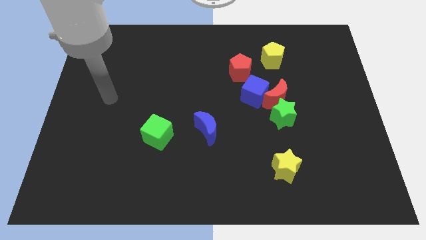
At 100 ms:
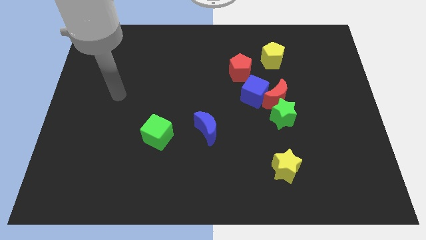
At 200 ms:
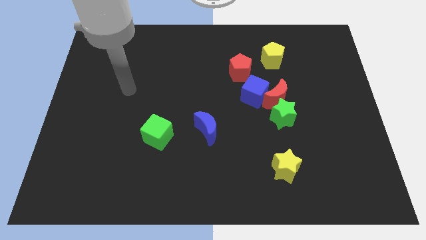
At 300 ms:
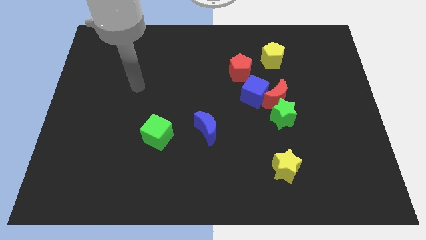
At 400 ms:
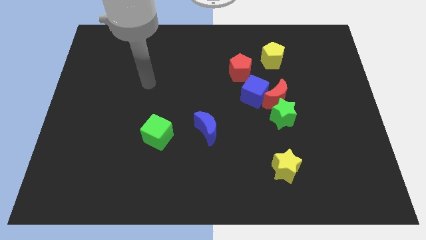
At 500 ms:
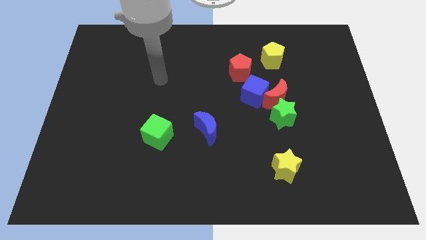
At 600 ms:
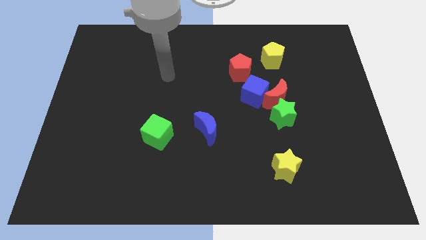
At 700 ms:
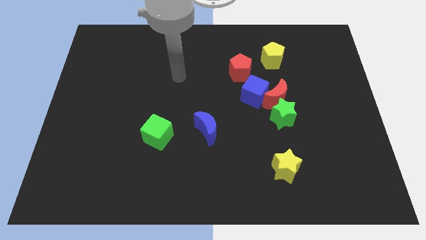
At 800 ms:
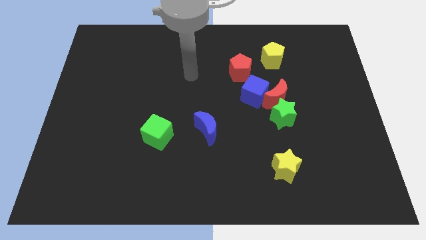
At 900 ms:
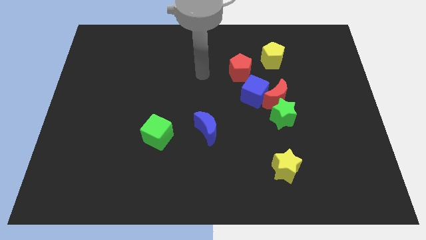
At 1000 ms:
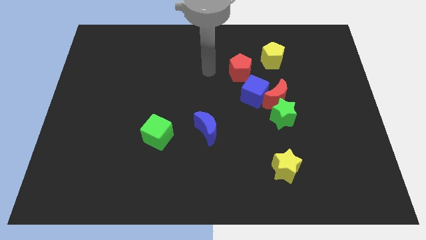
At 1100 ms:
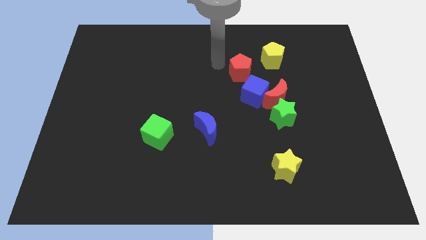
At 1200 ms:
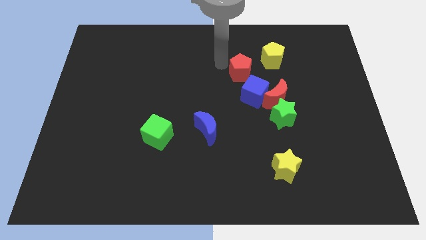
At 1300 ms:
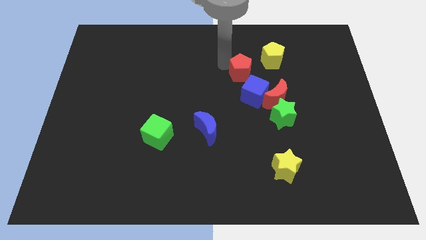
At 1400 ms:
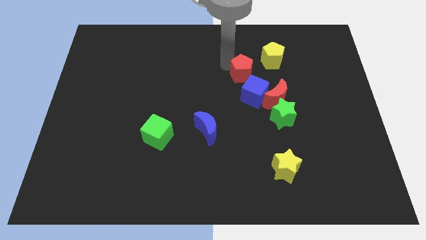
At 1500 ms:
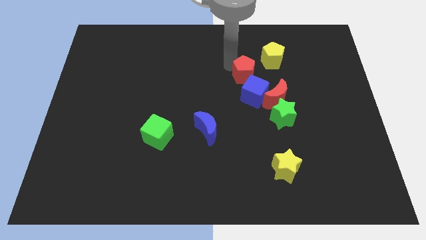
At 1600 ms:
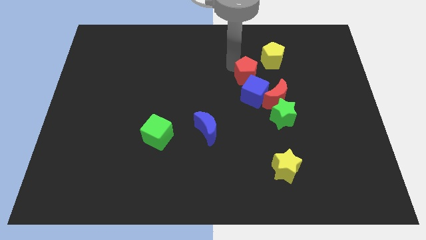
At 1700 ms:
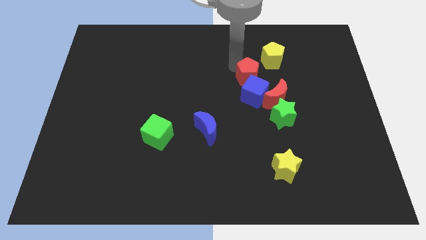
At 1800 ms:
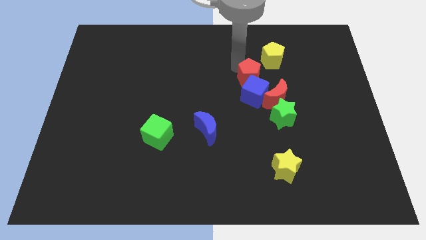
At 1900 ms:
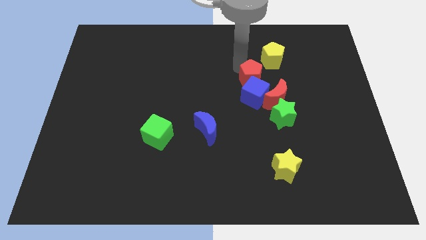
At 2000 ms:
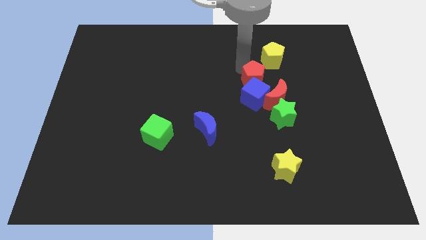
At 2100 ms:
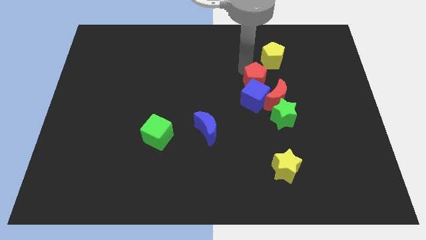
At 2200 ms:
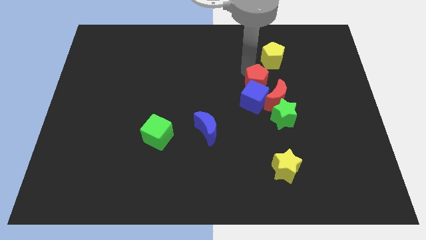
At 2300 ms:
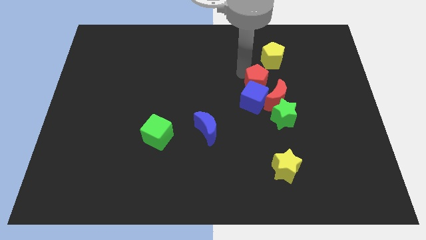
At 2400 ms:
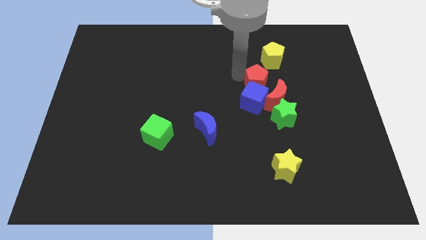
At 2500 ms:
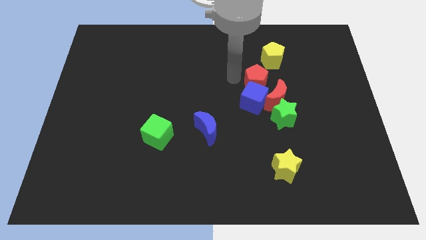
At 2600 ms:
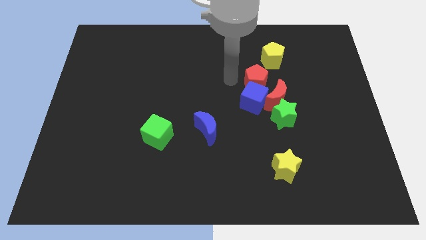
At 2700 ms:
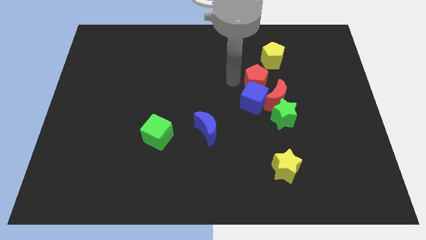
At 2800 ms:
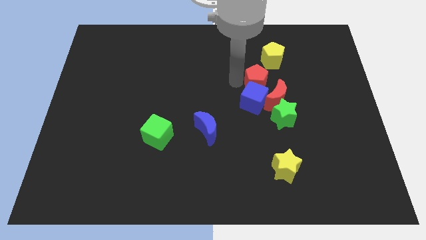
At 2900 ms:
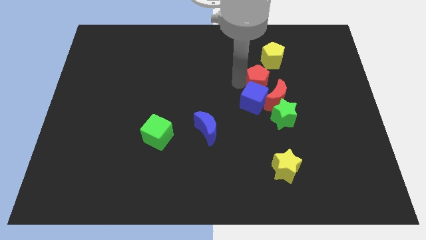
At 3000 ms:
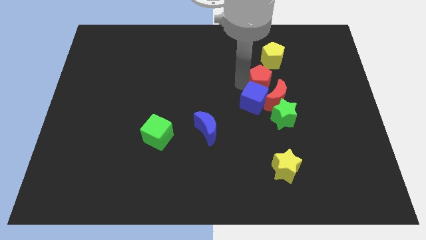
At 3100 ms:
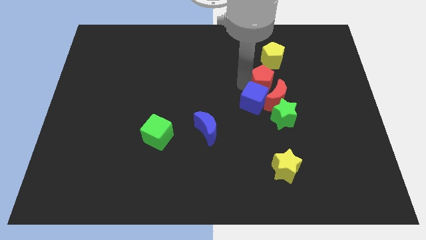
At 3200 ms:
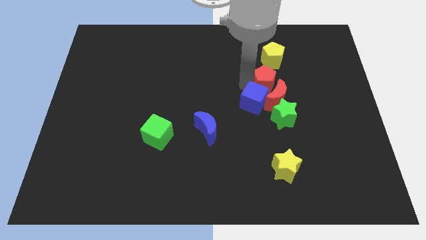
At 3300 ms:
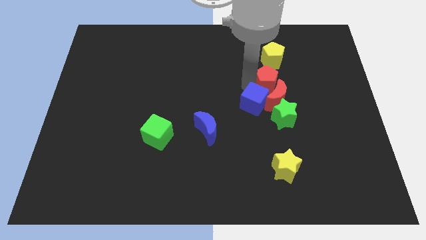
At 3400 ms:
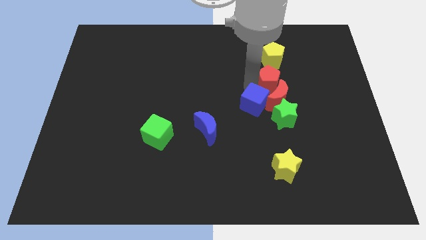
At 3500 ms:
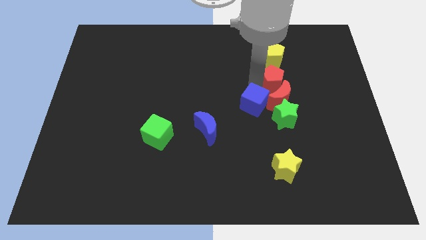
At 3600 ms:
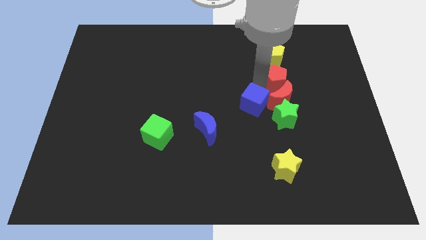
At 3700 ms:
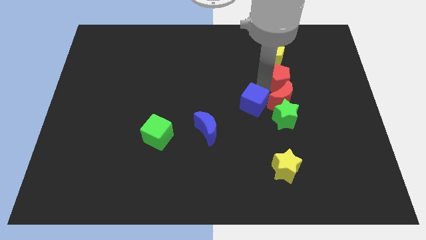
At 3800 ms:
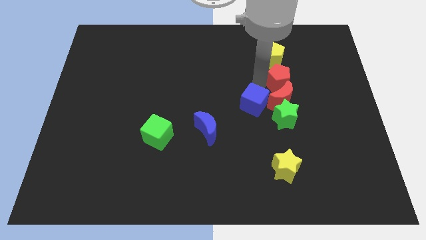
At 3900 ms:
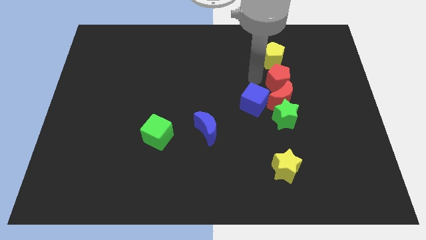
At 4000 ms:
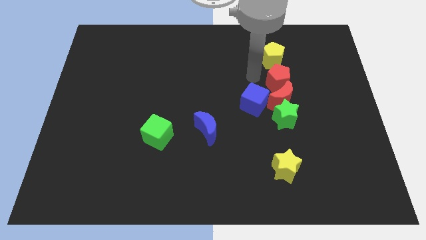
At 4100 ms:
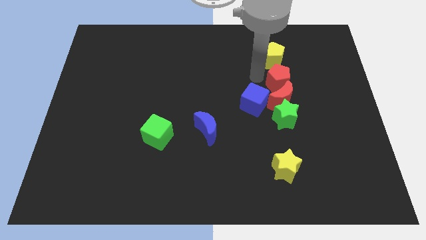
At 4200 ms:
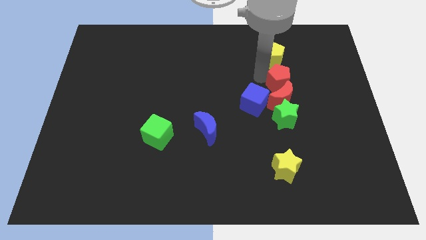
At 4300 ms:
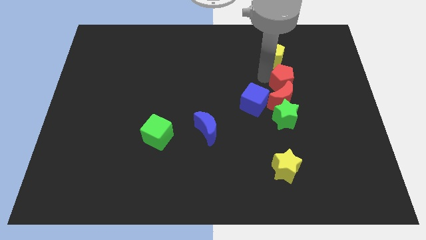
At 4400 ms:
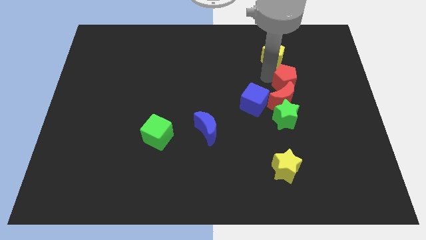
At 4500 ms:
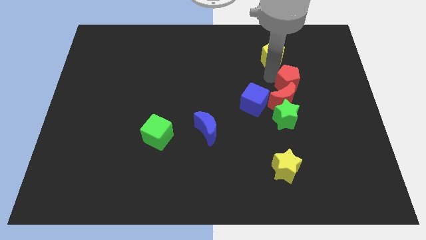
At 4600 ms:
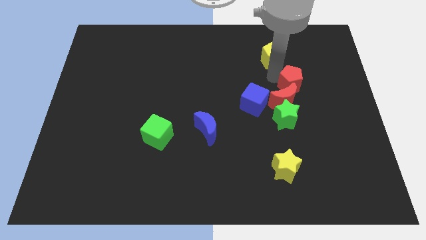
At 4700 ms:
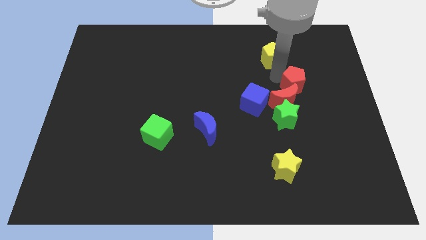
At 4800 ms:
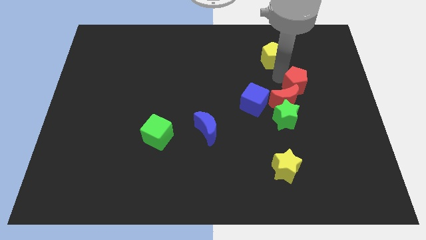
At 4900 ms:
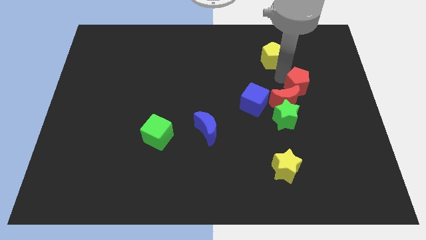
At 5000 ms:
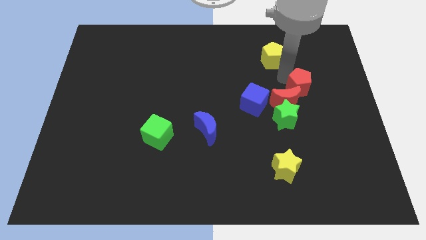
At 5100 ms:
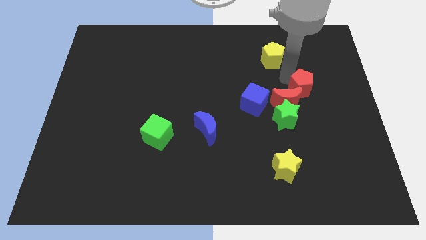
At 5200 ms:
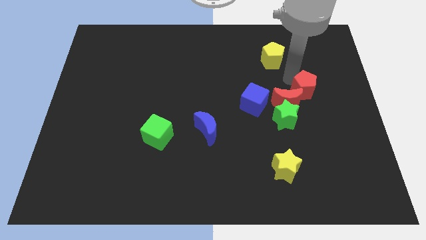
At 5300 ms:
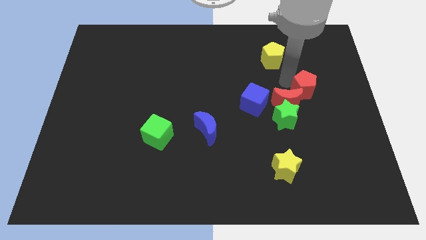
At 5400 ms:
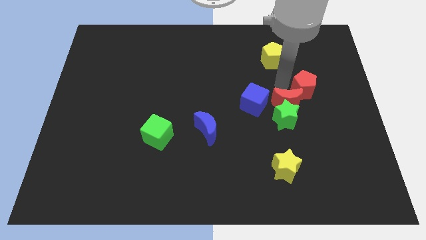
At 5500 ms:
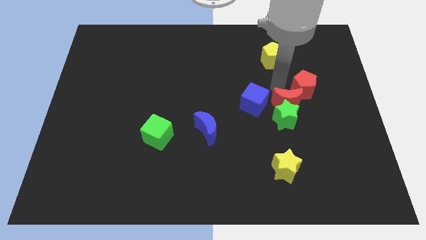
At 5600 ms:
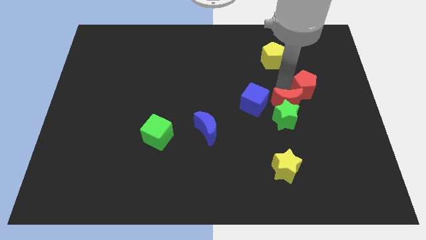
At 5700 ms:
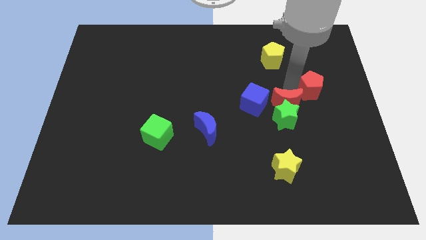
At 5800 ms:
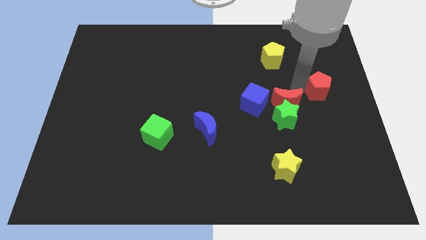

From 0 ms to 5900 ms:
put the red pentagon to the right side

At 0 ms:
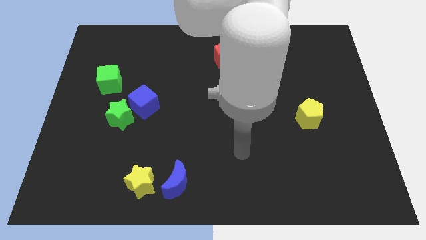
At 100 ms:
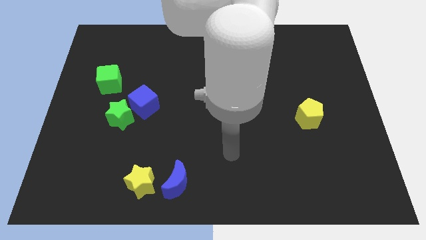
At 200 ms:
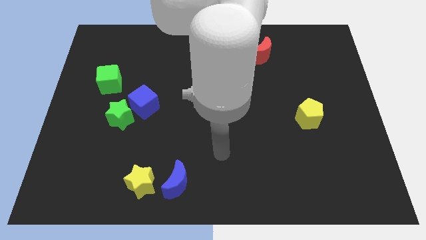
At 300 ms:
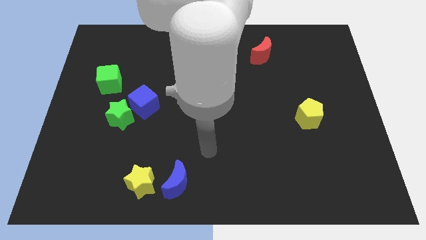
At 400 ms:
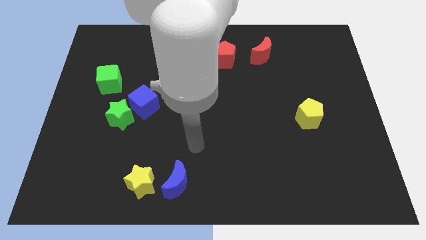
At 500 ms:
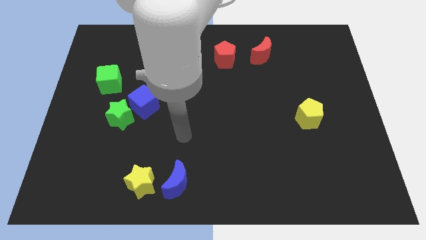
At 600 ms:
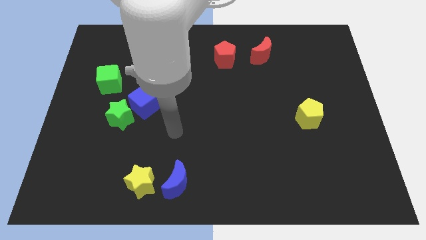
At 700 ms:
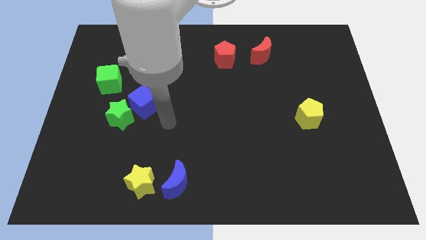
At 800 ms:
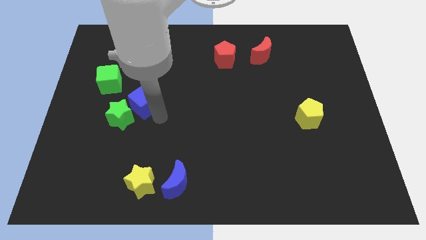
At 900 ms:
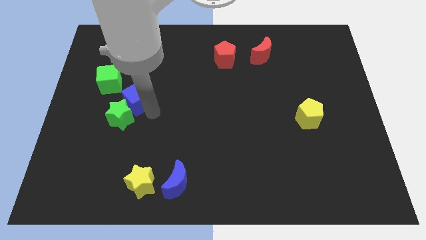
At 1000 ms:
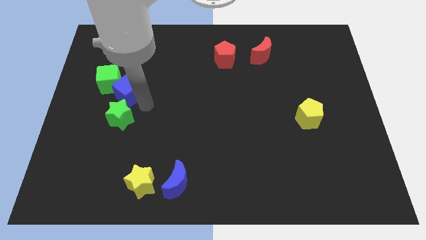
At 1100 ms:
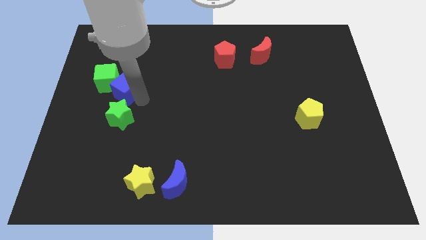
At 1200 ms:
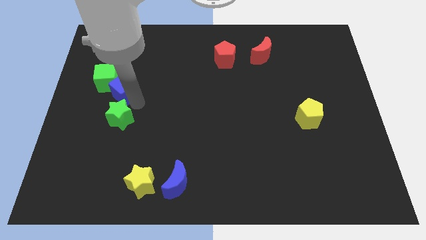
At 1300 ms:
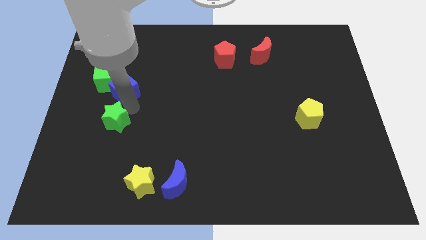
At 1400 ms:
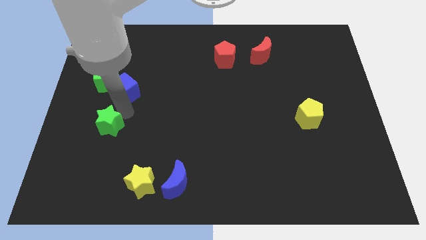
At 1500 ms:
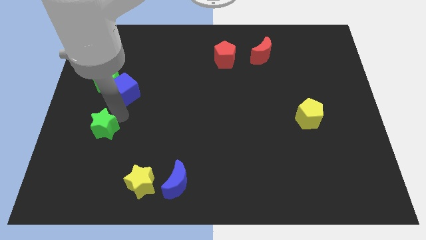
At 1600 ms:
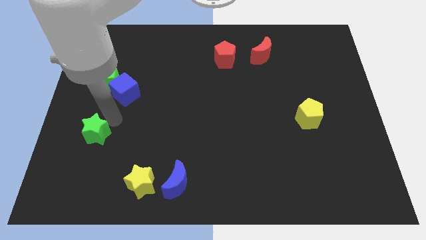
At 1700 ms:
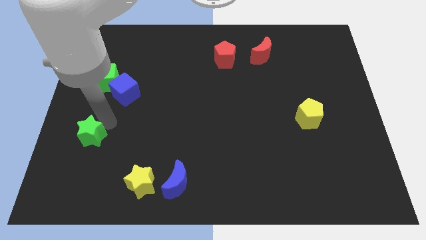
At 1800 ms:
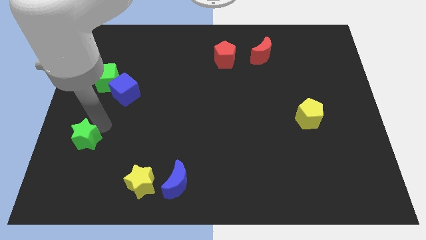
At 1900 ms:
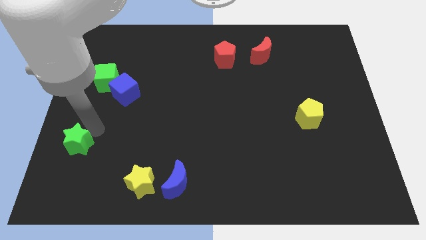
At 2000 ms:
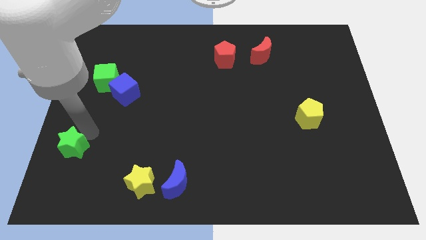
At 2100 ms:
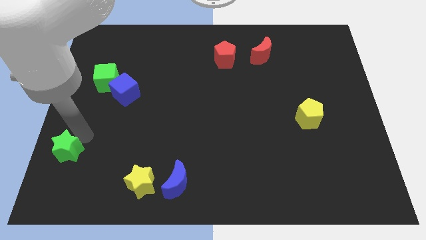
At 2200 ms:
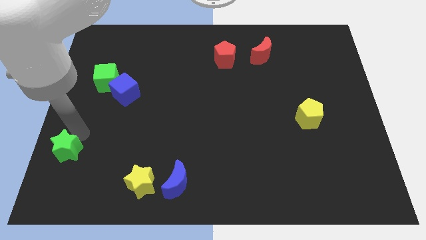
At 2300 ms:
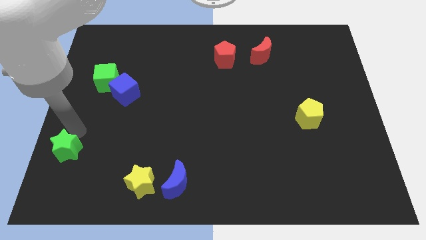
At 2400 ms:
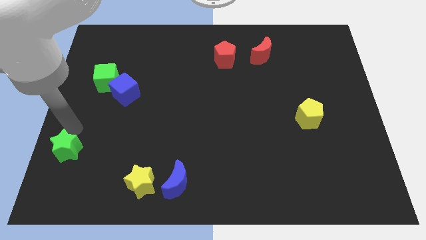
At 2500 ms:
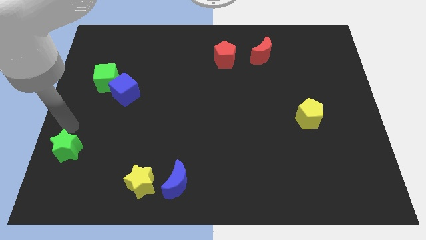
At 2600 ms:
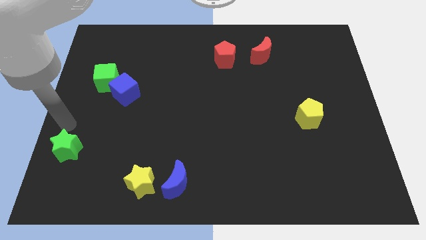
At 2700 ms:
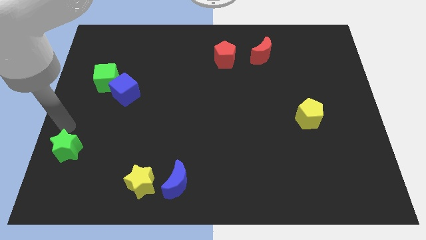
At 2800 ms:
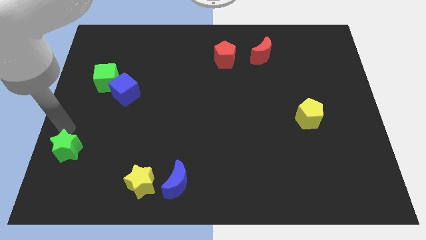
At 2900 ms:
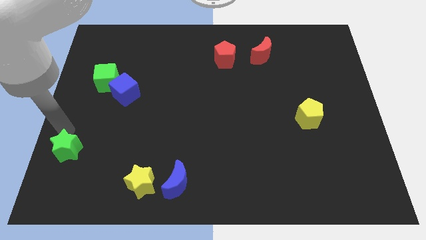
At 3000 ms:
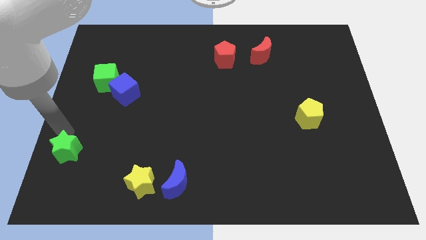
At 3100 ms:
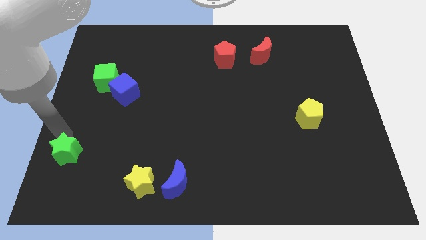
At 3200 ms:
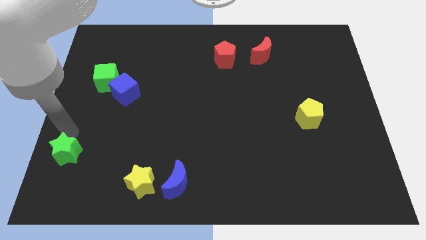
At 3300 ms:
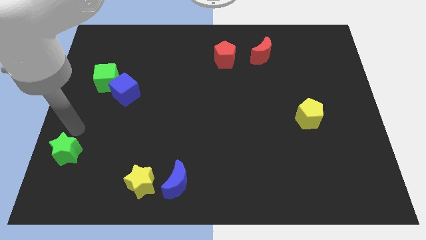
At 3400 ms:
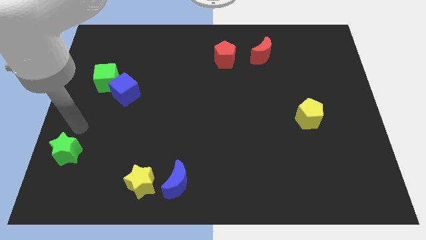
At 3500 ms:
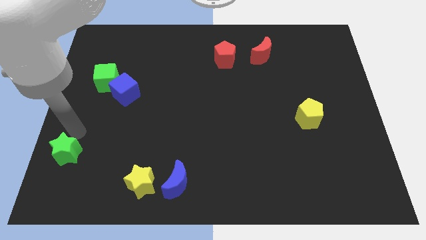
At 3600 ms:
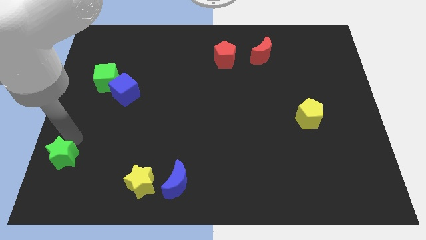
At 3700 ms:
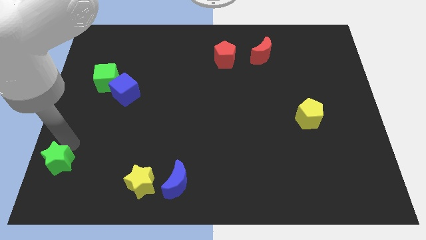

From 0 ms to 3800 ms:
slide the green star to the lower left corner
